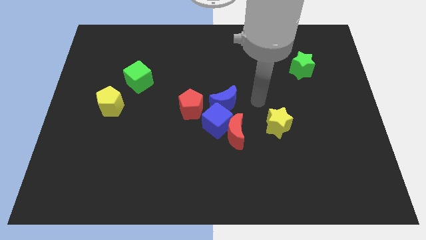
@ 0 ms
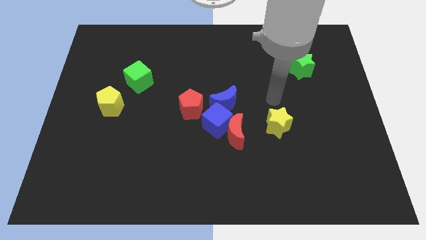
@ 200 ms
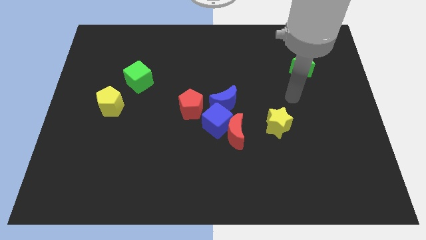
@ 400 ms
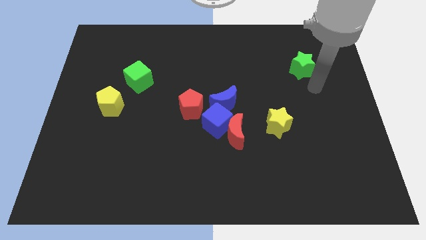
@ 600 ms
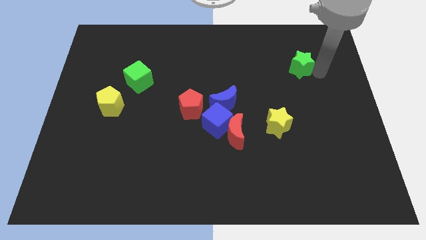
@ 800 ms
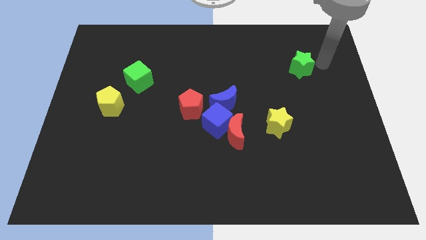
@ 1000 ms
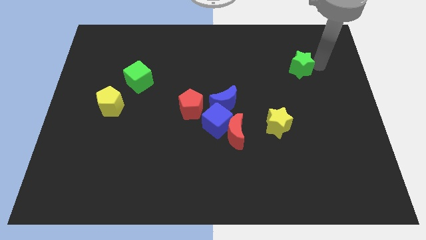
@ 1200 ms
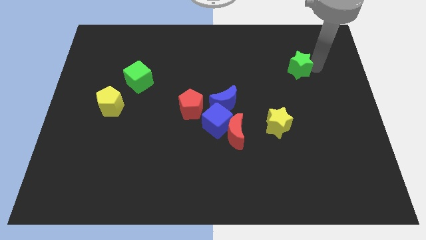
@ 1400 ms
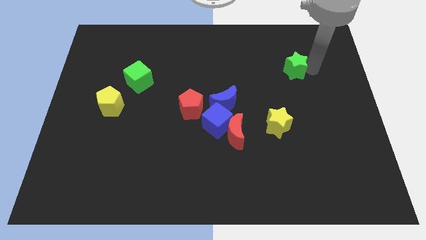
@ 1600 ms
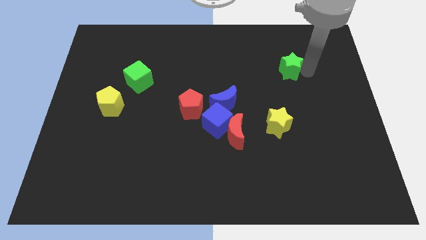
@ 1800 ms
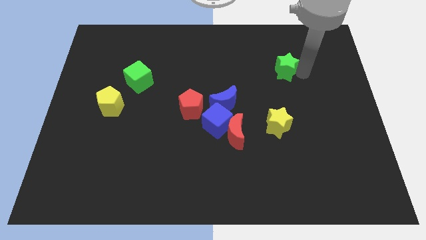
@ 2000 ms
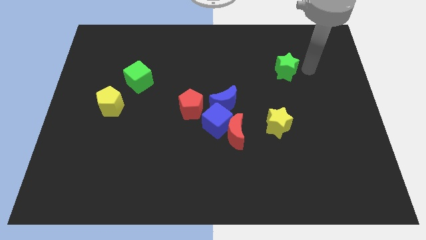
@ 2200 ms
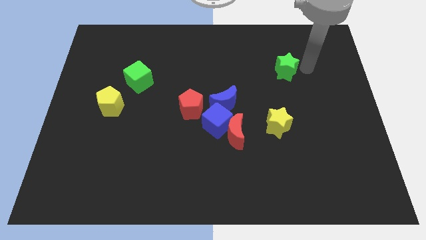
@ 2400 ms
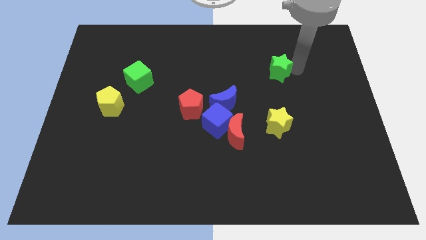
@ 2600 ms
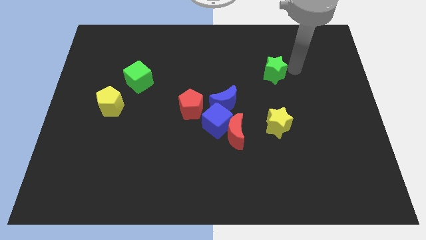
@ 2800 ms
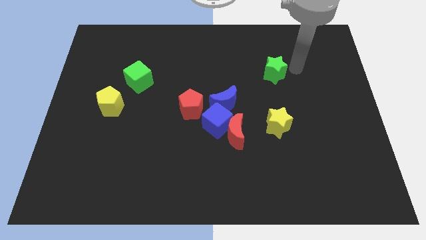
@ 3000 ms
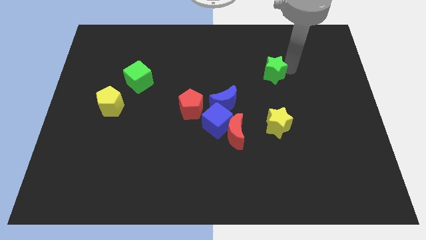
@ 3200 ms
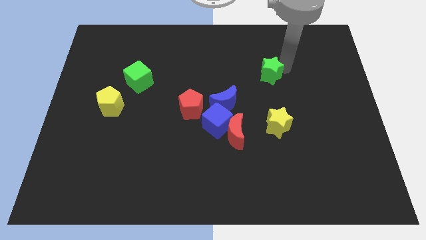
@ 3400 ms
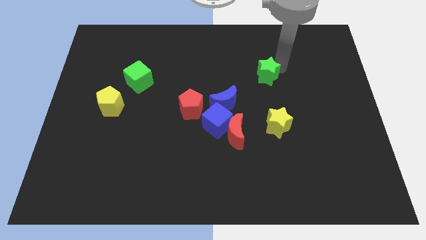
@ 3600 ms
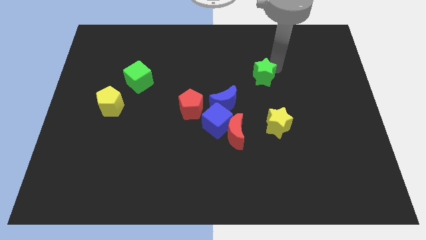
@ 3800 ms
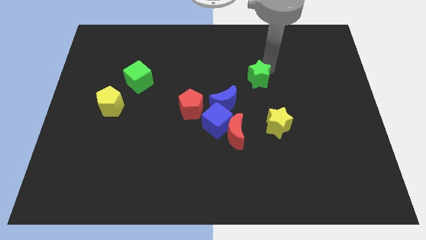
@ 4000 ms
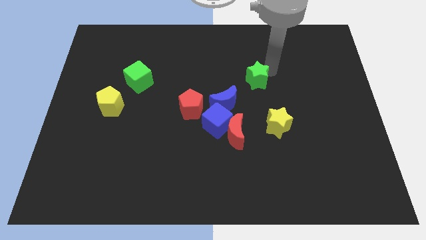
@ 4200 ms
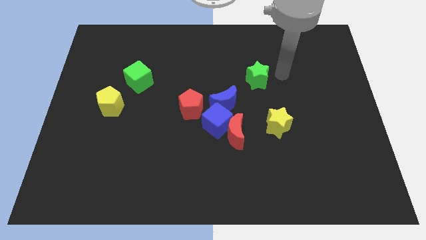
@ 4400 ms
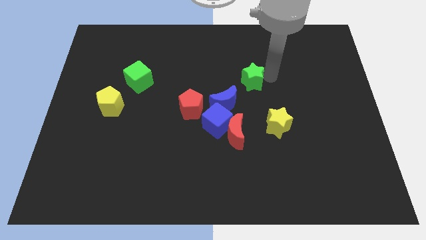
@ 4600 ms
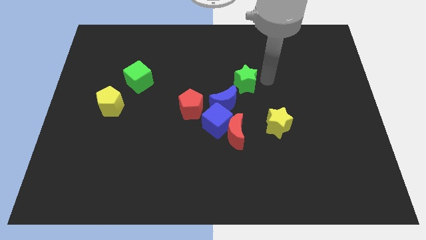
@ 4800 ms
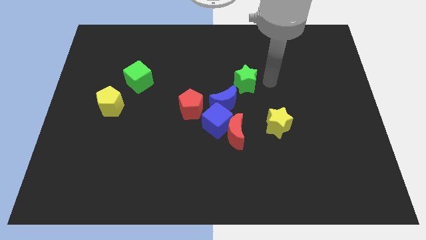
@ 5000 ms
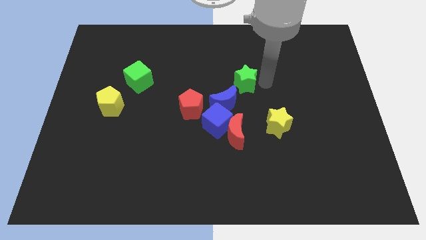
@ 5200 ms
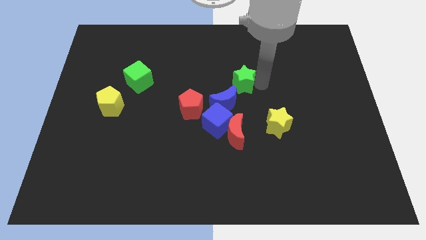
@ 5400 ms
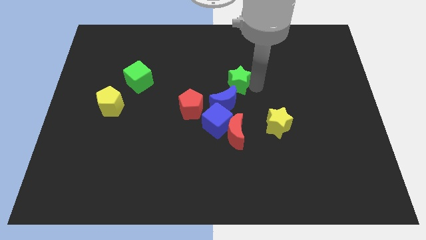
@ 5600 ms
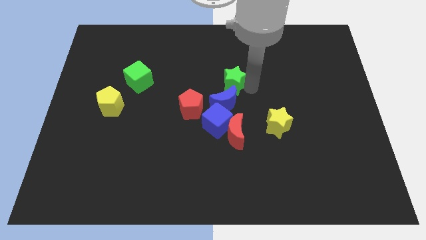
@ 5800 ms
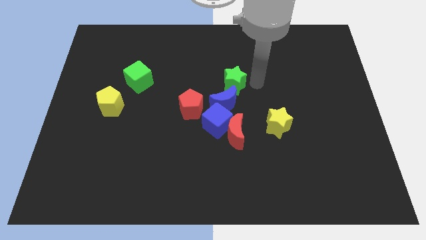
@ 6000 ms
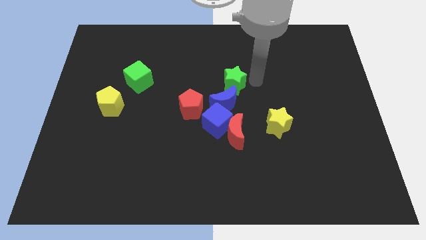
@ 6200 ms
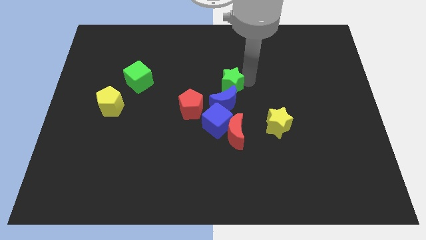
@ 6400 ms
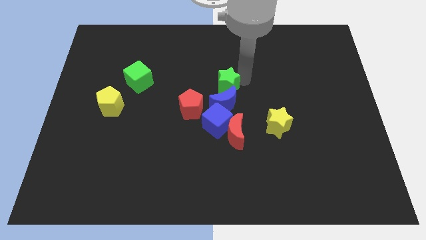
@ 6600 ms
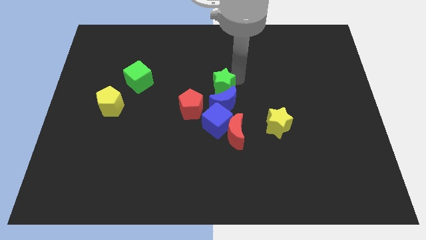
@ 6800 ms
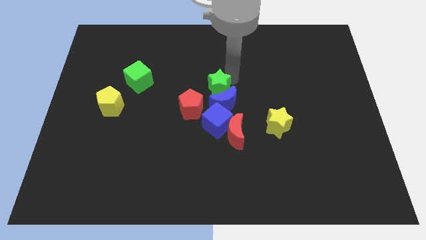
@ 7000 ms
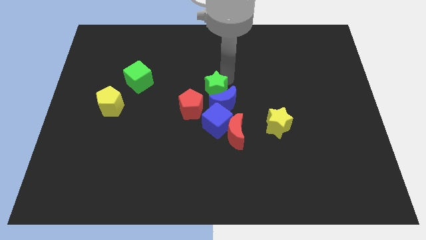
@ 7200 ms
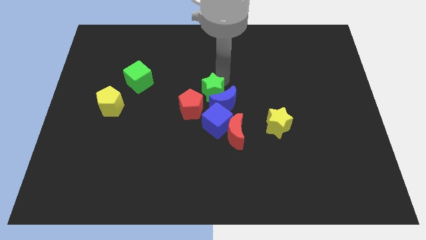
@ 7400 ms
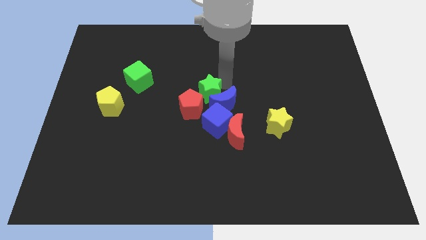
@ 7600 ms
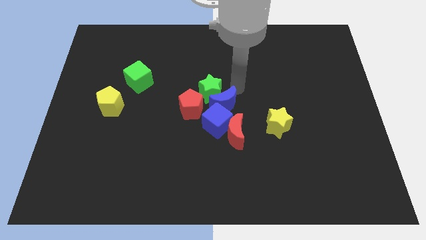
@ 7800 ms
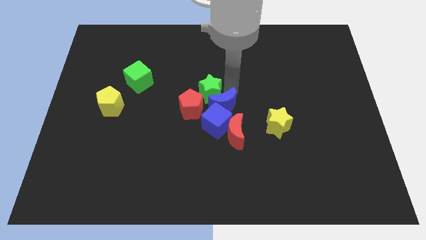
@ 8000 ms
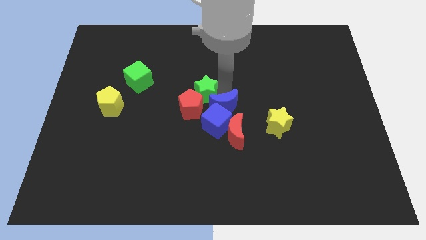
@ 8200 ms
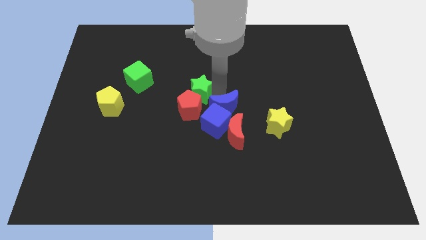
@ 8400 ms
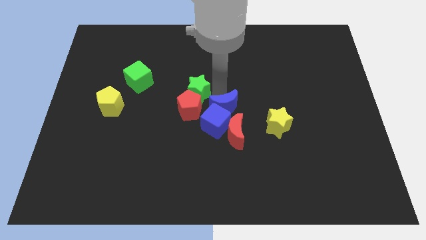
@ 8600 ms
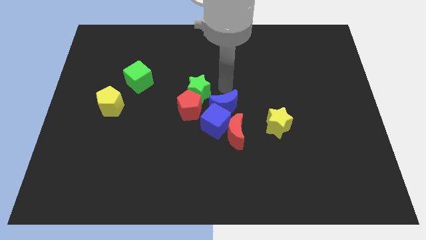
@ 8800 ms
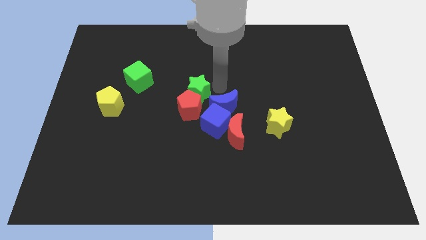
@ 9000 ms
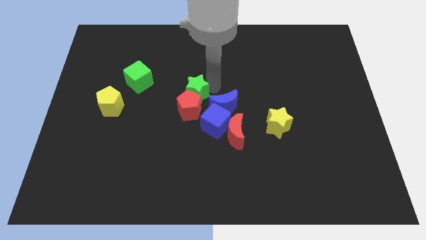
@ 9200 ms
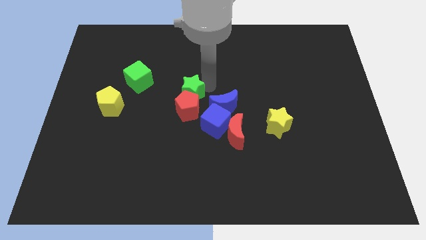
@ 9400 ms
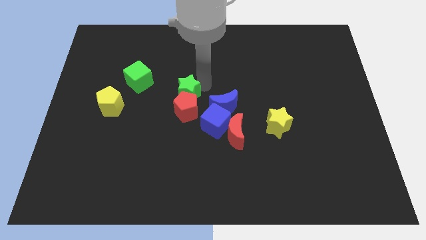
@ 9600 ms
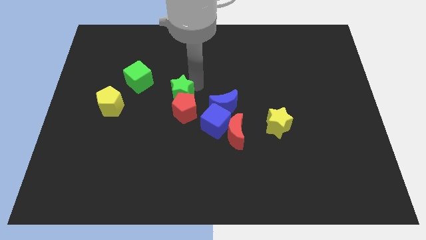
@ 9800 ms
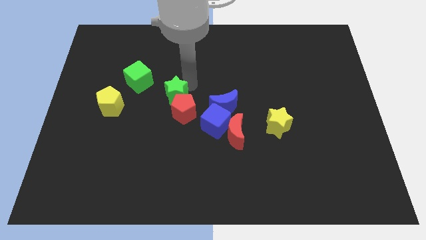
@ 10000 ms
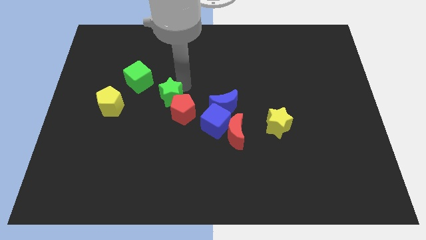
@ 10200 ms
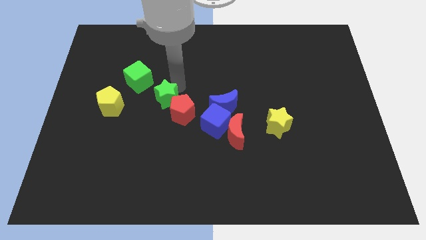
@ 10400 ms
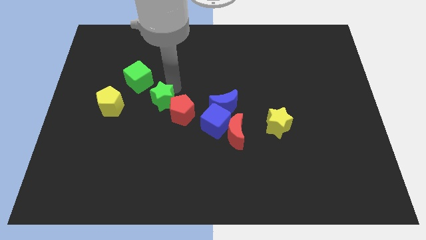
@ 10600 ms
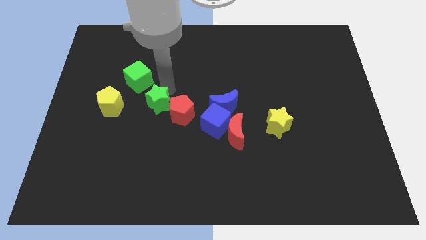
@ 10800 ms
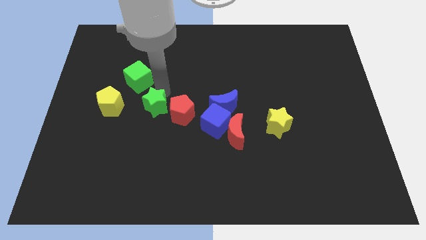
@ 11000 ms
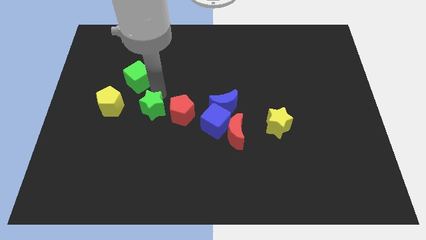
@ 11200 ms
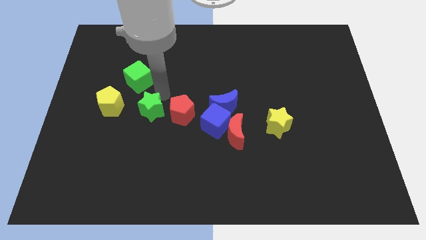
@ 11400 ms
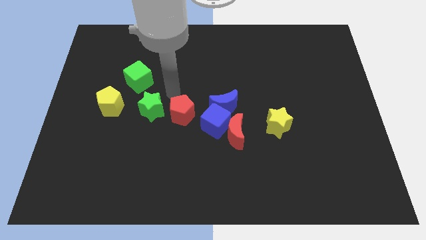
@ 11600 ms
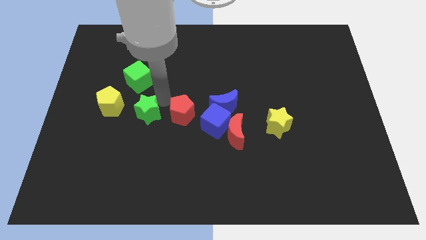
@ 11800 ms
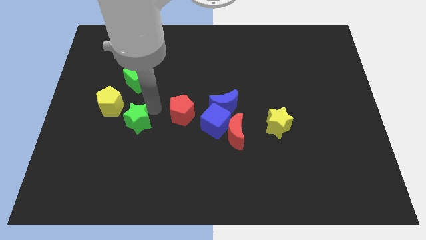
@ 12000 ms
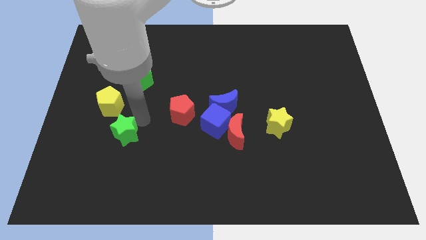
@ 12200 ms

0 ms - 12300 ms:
push the green star below the yellow pentagon

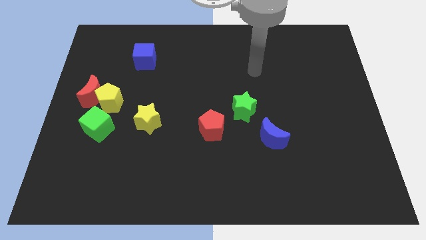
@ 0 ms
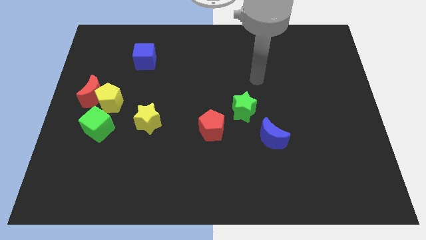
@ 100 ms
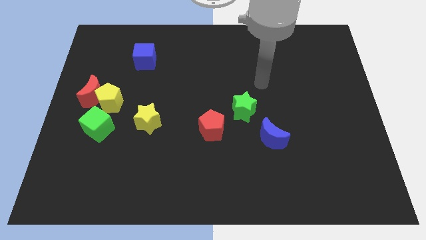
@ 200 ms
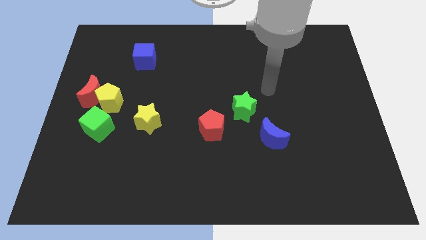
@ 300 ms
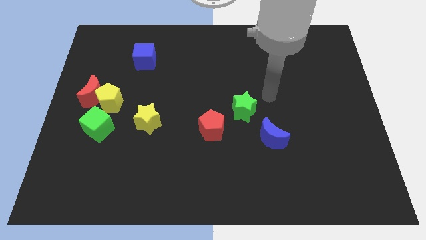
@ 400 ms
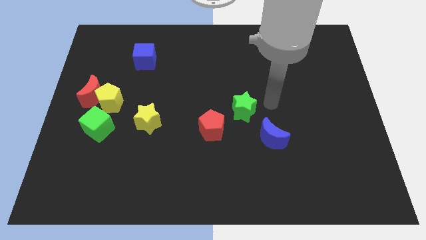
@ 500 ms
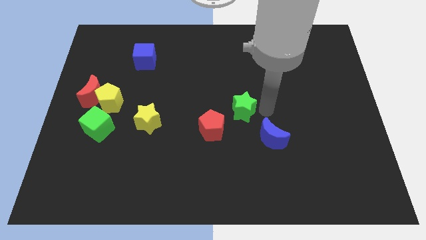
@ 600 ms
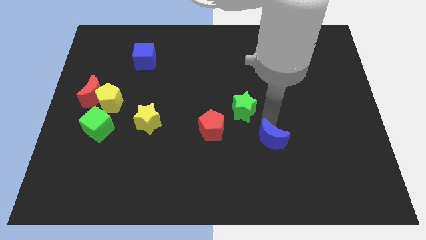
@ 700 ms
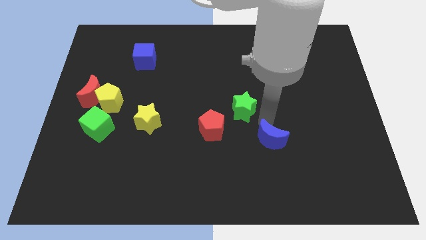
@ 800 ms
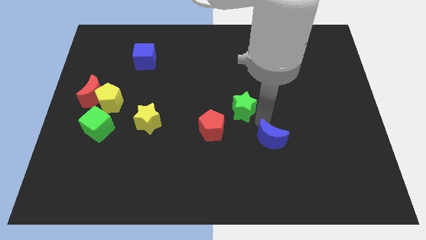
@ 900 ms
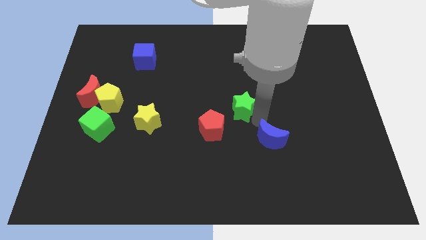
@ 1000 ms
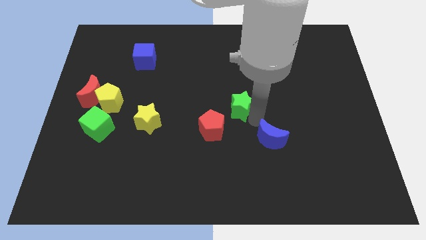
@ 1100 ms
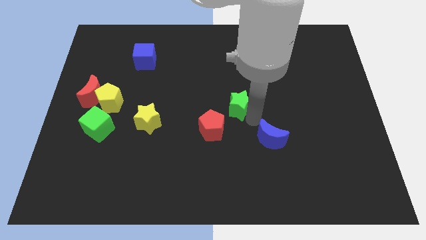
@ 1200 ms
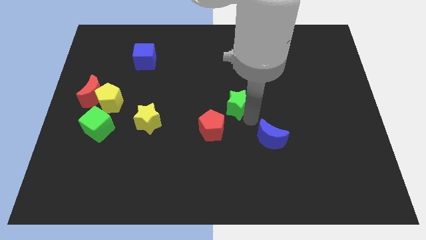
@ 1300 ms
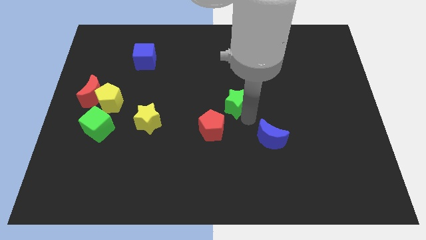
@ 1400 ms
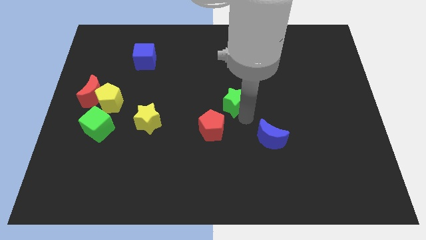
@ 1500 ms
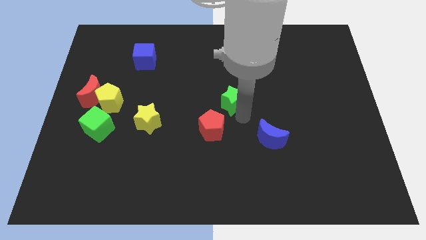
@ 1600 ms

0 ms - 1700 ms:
put the green star above the red pentagon
